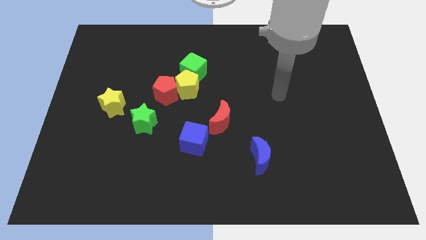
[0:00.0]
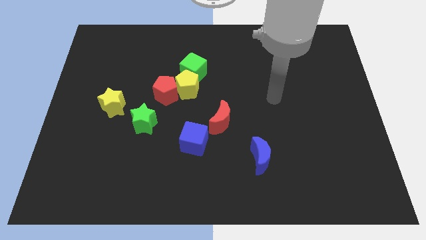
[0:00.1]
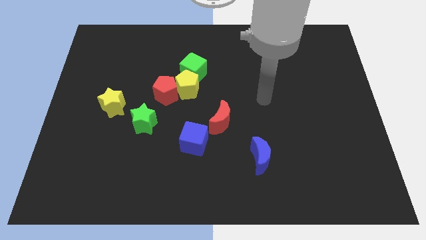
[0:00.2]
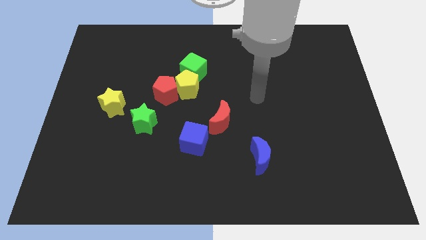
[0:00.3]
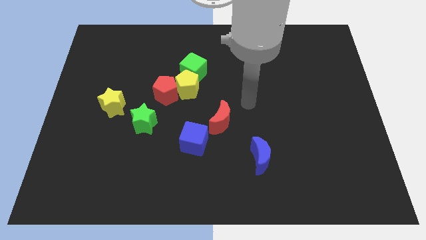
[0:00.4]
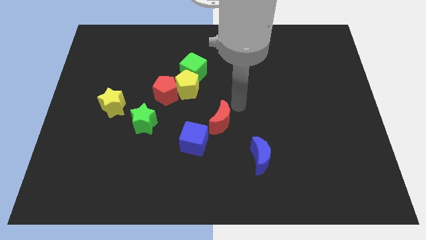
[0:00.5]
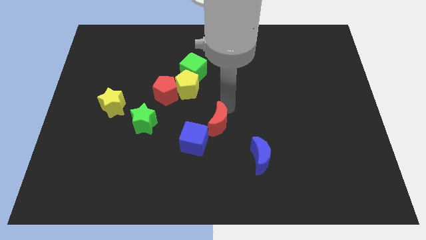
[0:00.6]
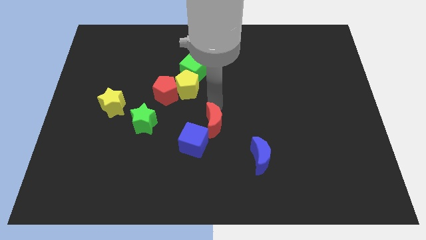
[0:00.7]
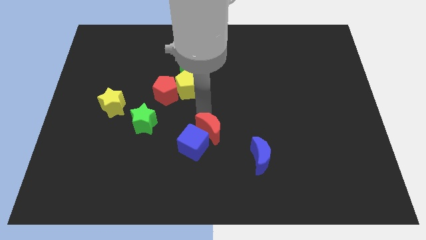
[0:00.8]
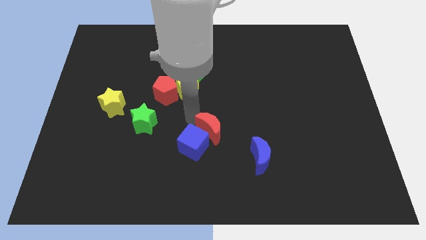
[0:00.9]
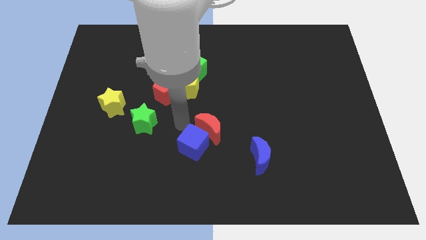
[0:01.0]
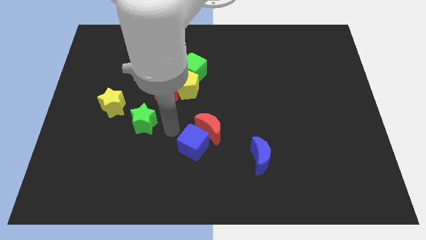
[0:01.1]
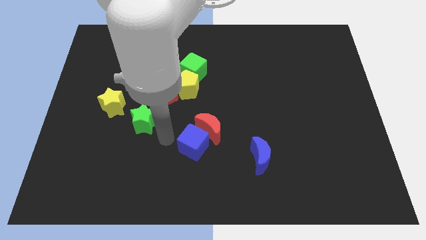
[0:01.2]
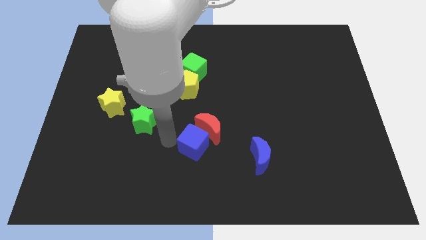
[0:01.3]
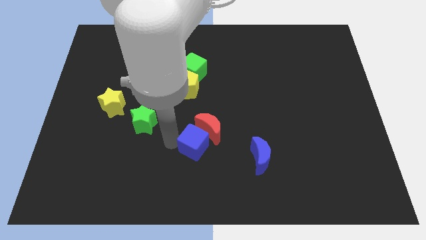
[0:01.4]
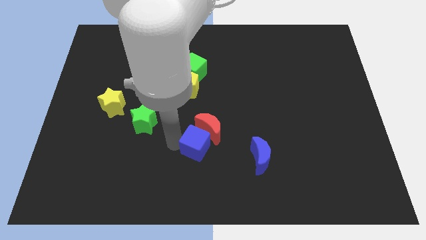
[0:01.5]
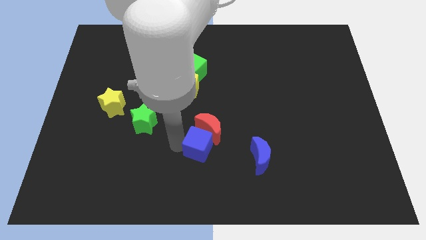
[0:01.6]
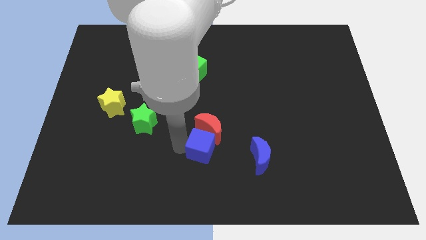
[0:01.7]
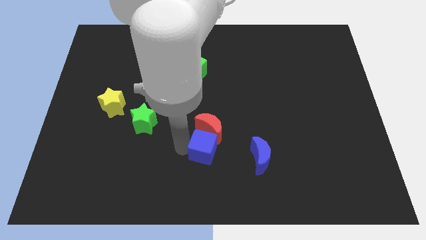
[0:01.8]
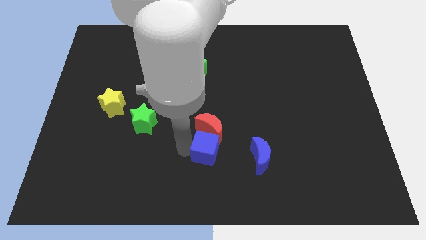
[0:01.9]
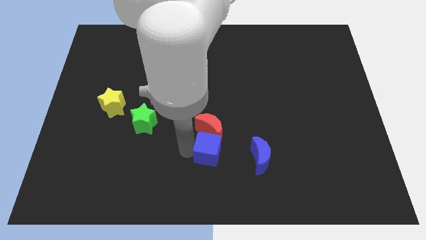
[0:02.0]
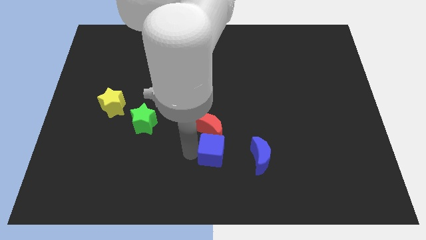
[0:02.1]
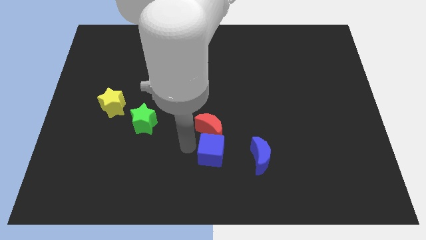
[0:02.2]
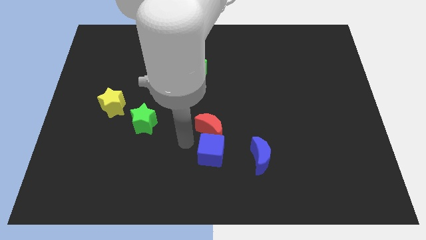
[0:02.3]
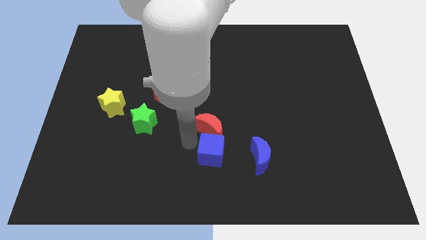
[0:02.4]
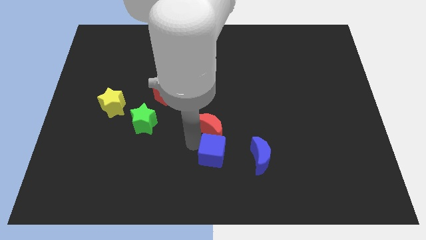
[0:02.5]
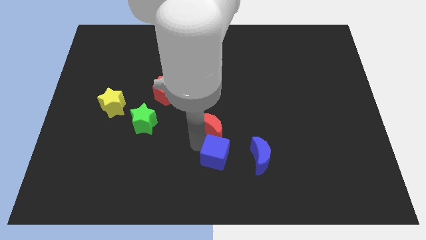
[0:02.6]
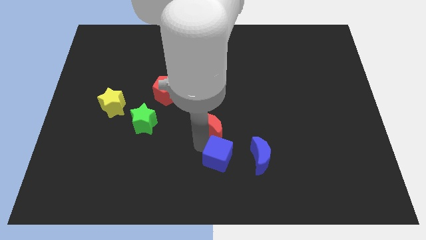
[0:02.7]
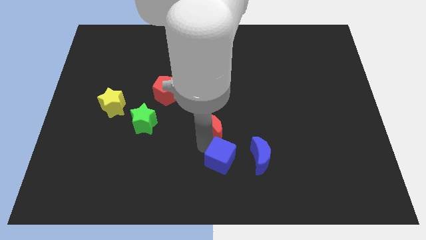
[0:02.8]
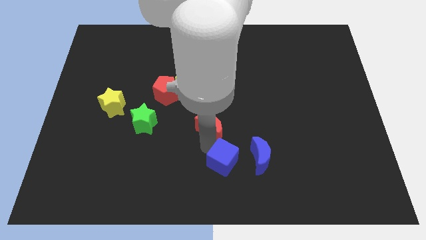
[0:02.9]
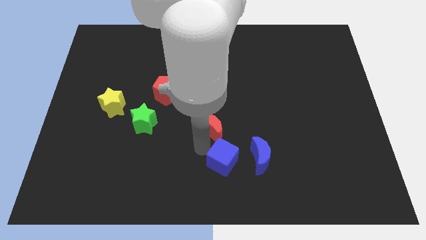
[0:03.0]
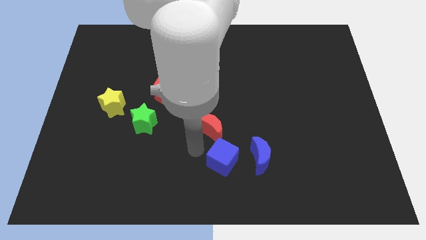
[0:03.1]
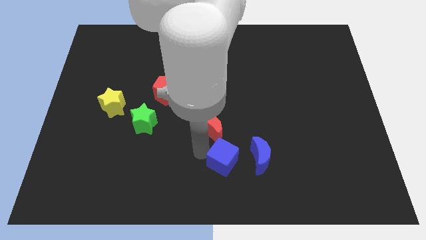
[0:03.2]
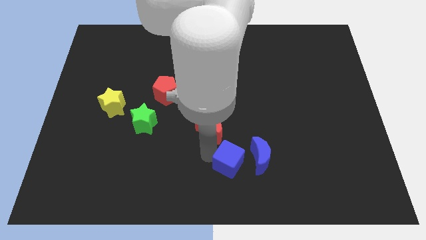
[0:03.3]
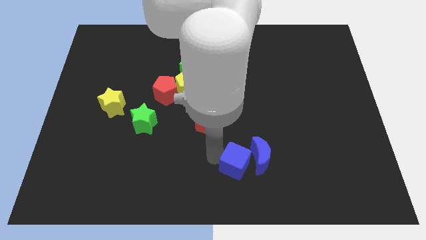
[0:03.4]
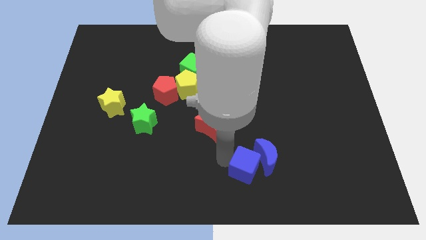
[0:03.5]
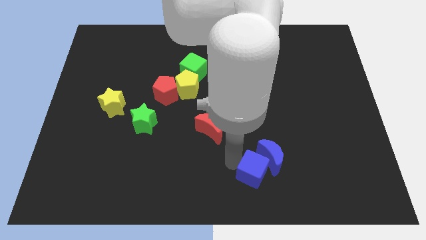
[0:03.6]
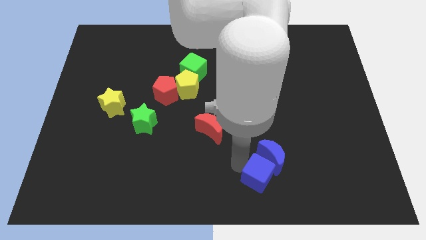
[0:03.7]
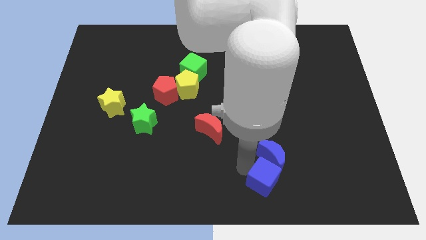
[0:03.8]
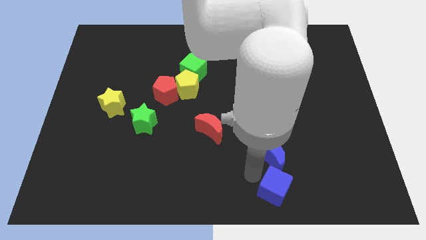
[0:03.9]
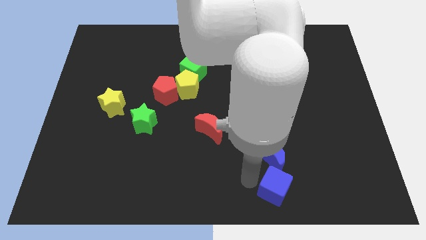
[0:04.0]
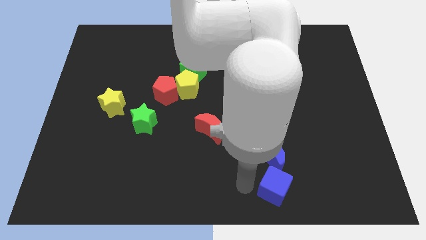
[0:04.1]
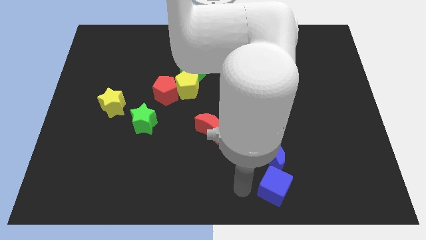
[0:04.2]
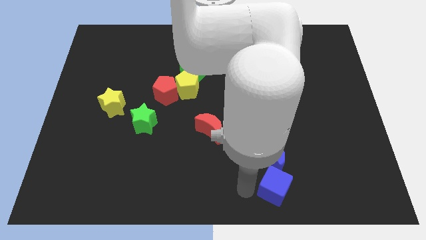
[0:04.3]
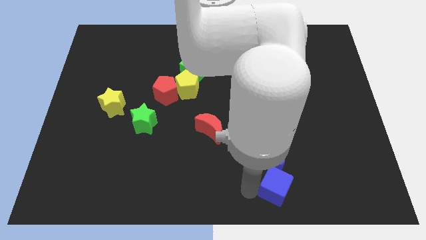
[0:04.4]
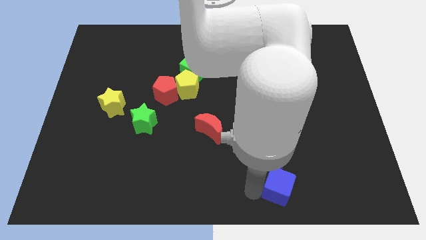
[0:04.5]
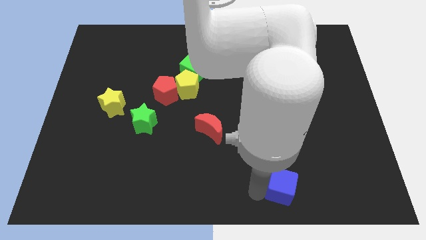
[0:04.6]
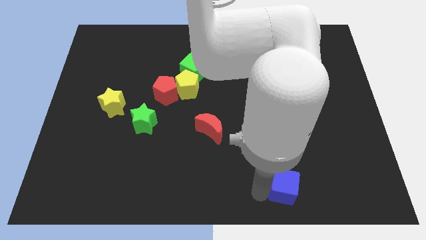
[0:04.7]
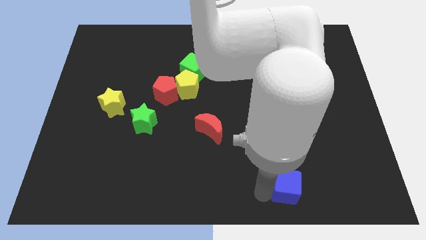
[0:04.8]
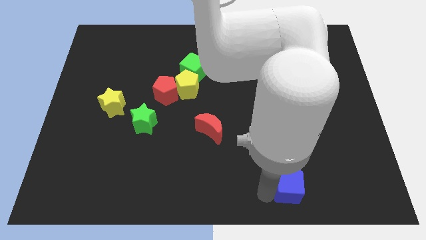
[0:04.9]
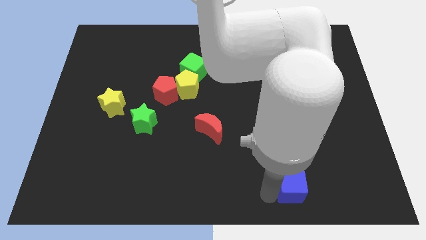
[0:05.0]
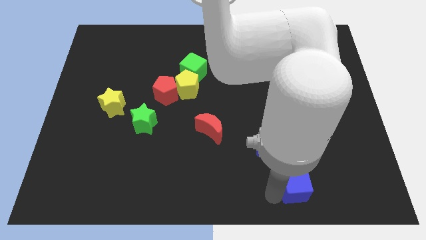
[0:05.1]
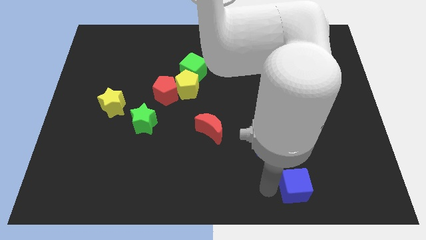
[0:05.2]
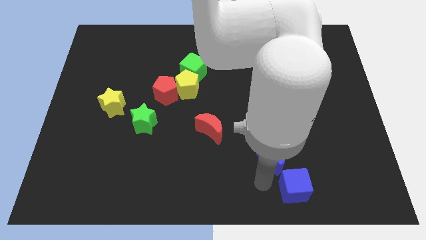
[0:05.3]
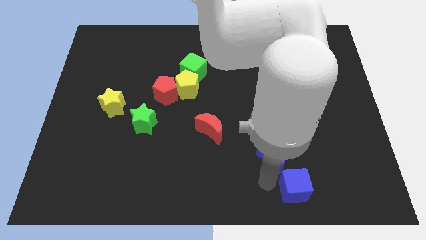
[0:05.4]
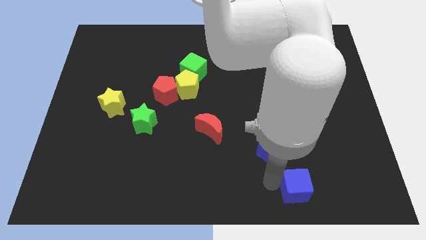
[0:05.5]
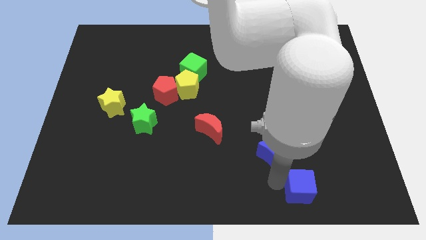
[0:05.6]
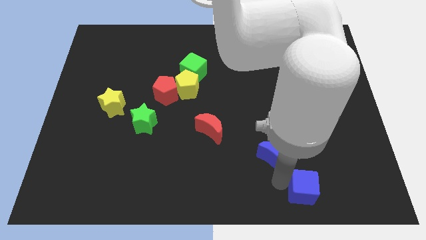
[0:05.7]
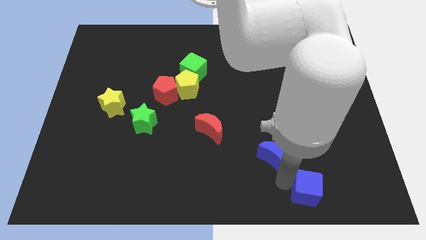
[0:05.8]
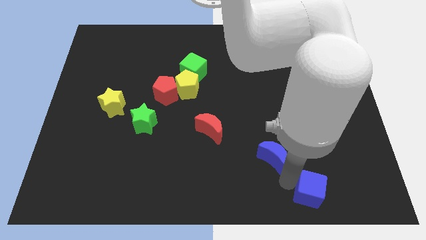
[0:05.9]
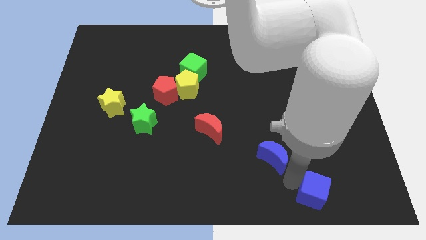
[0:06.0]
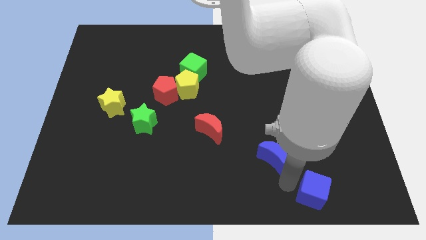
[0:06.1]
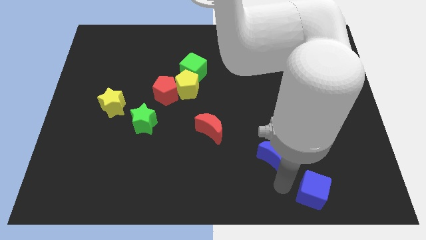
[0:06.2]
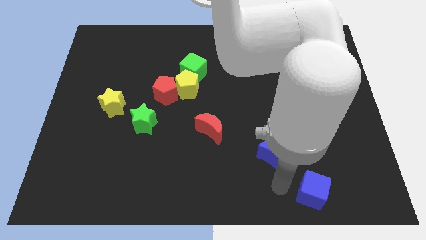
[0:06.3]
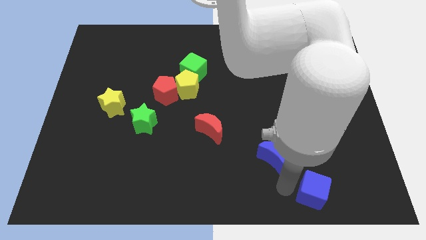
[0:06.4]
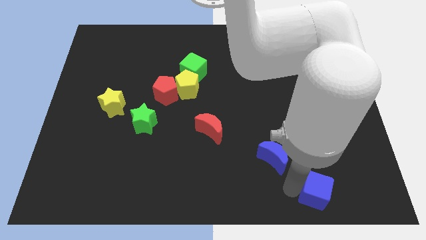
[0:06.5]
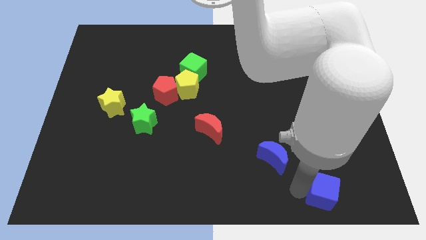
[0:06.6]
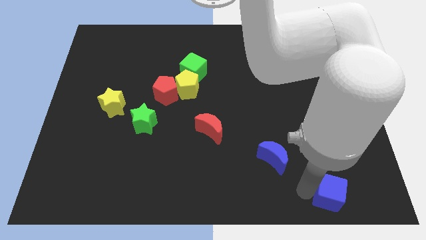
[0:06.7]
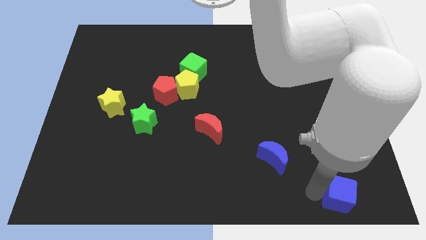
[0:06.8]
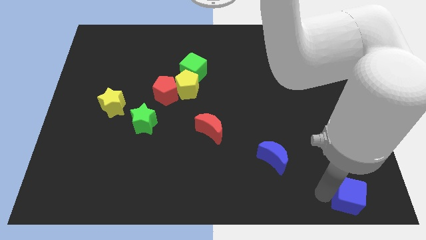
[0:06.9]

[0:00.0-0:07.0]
move the blue cube to the bottom right of the board
